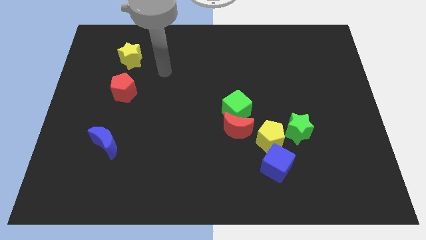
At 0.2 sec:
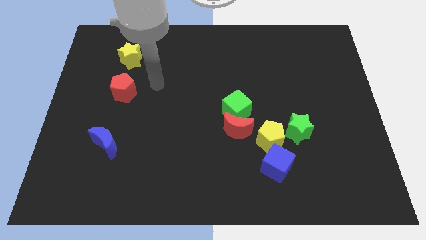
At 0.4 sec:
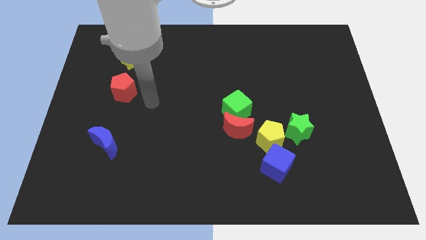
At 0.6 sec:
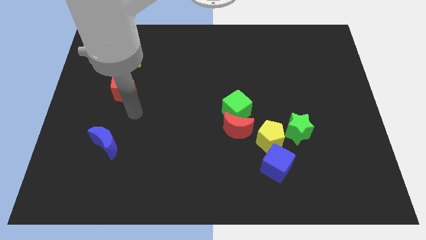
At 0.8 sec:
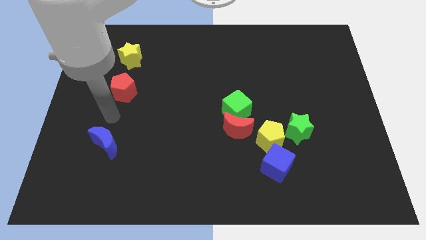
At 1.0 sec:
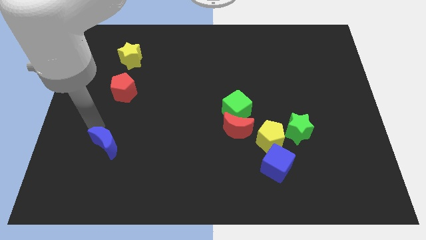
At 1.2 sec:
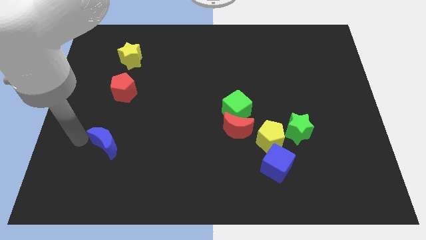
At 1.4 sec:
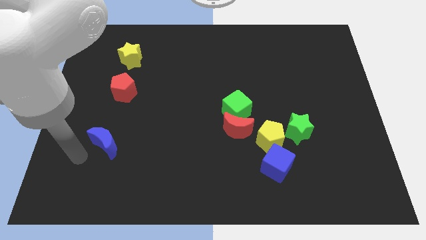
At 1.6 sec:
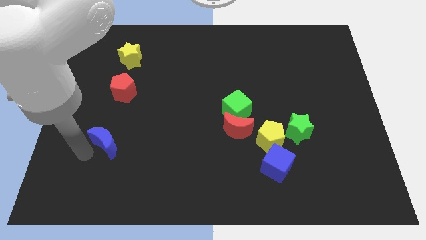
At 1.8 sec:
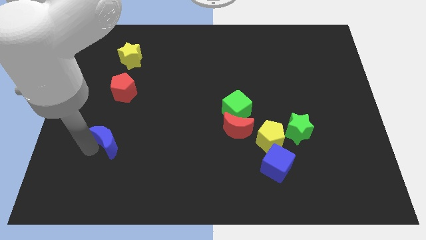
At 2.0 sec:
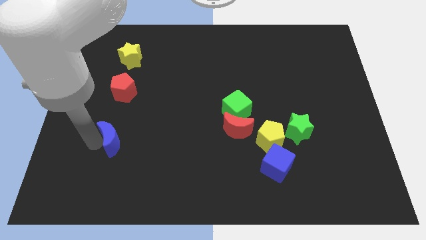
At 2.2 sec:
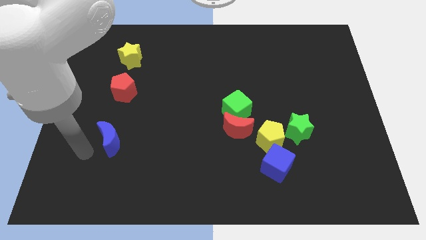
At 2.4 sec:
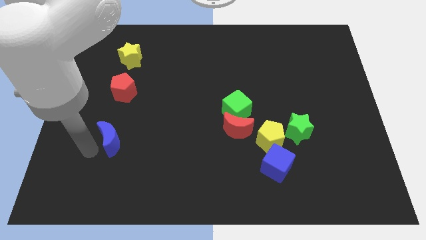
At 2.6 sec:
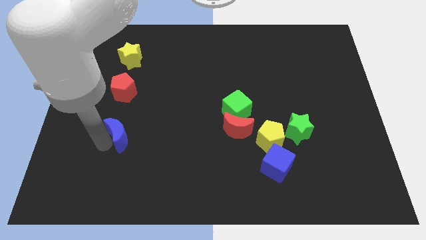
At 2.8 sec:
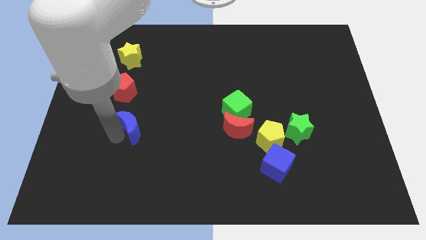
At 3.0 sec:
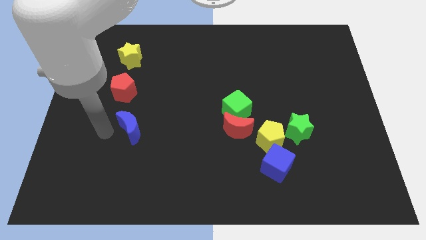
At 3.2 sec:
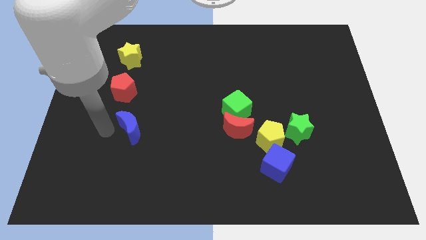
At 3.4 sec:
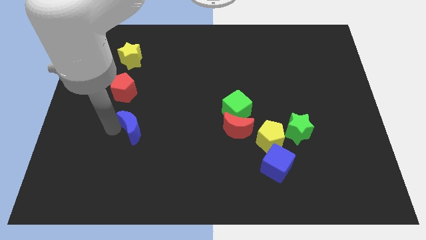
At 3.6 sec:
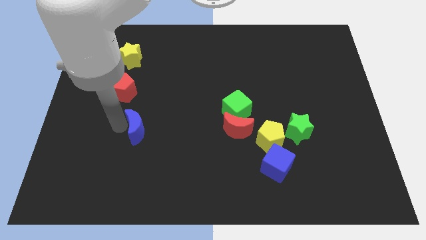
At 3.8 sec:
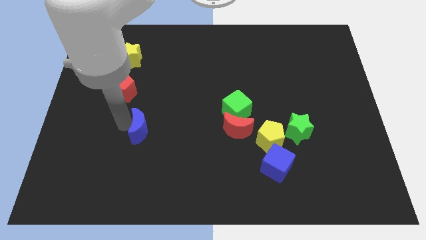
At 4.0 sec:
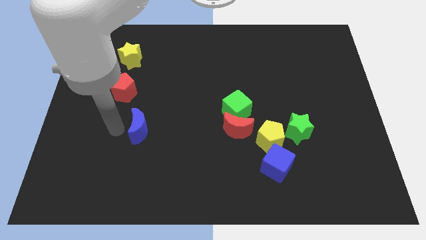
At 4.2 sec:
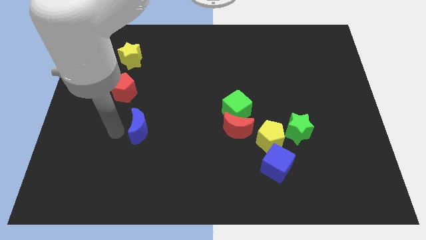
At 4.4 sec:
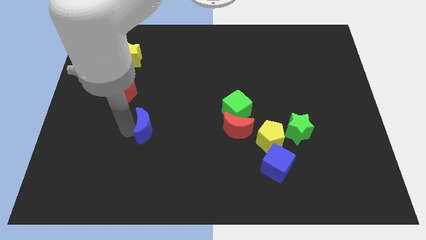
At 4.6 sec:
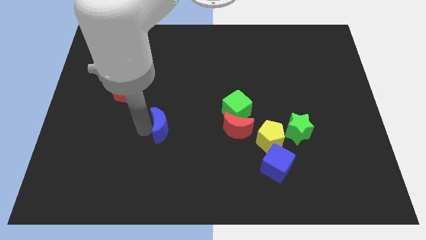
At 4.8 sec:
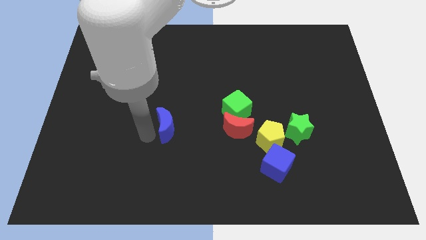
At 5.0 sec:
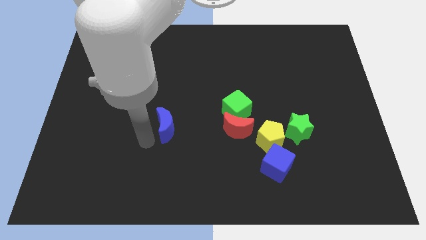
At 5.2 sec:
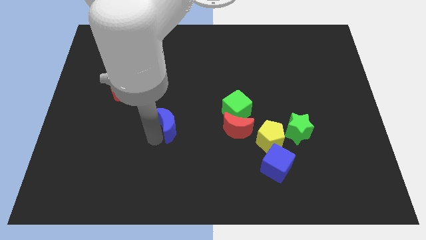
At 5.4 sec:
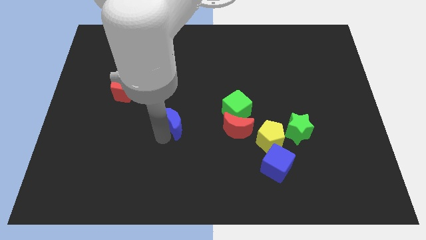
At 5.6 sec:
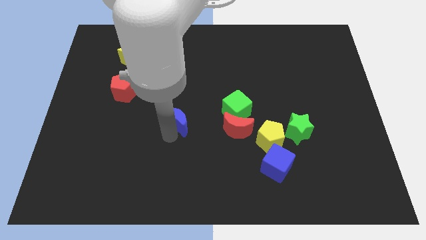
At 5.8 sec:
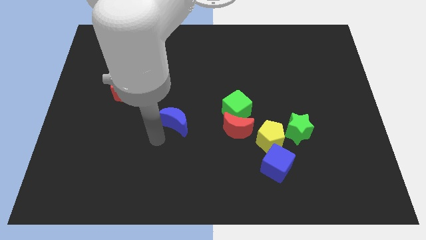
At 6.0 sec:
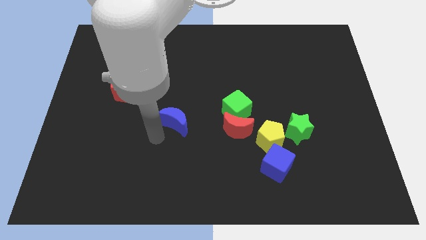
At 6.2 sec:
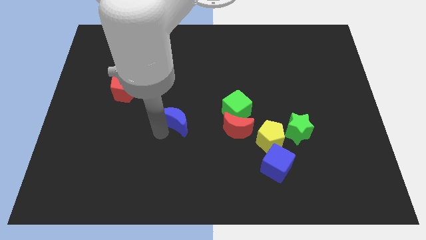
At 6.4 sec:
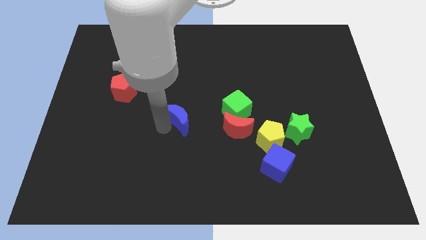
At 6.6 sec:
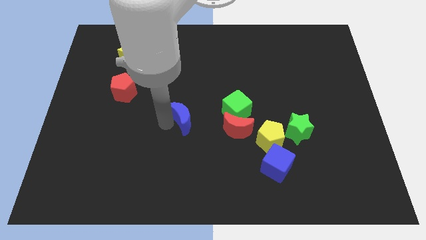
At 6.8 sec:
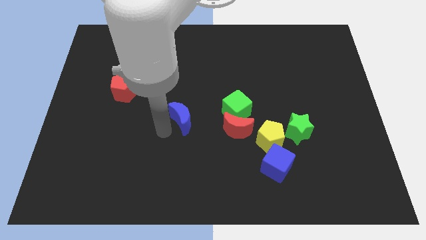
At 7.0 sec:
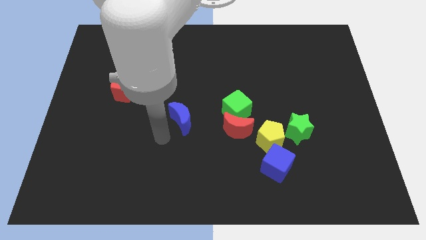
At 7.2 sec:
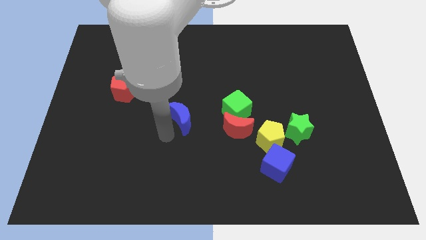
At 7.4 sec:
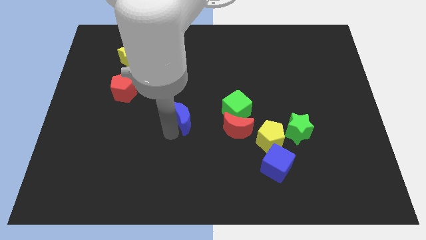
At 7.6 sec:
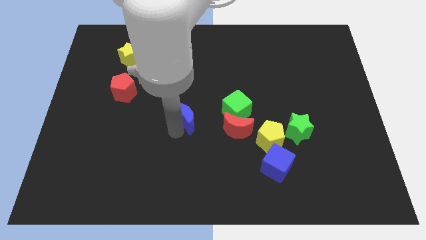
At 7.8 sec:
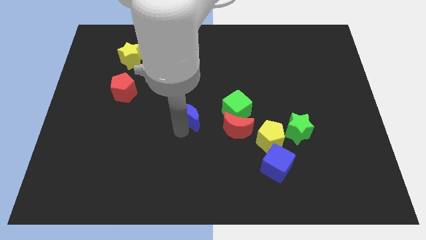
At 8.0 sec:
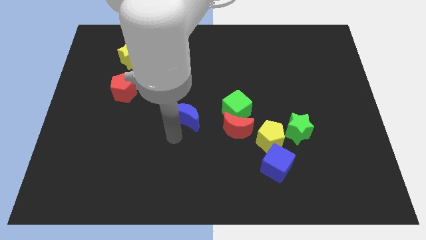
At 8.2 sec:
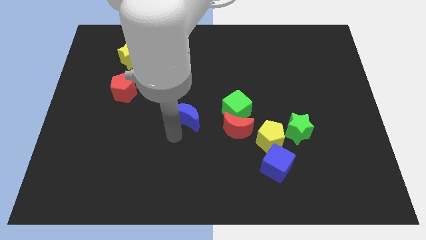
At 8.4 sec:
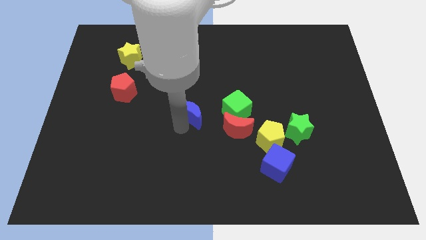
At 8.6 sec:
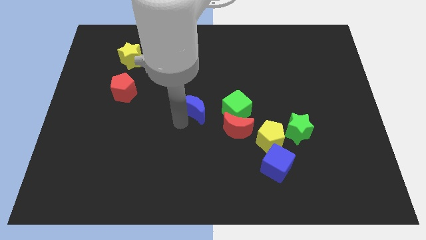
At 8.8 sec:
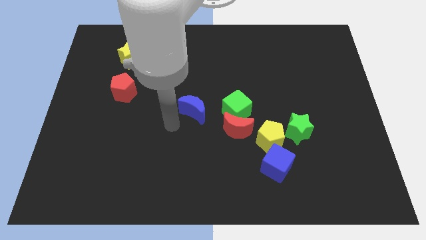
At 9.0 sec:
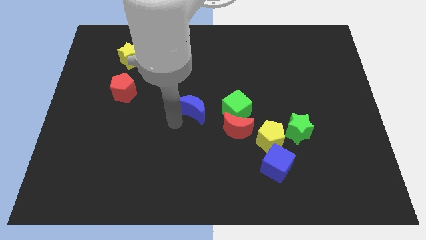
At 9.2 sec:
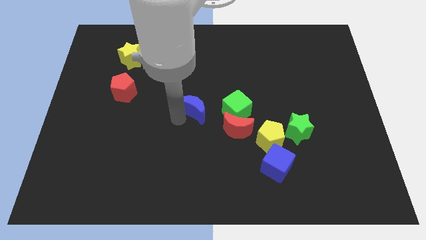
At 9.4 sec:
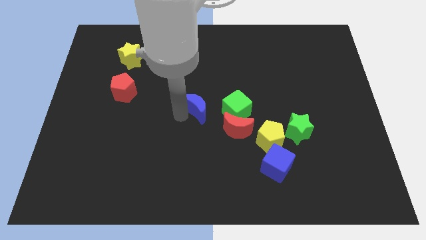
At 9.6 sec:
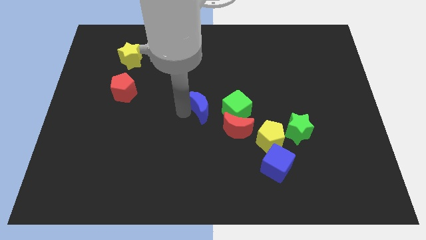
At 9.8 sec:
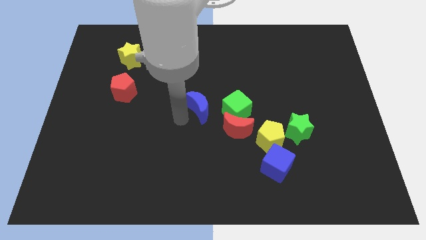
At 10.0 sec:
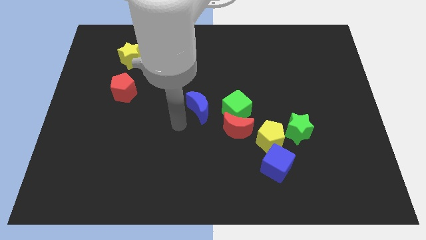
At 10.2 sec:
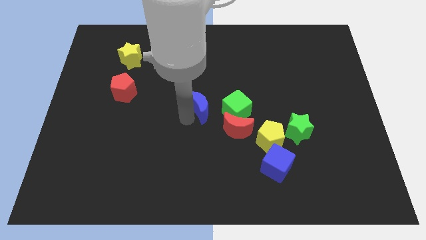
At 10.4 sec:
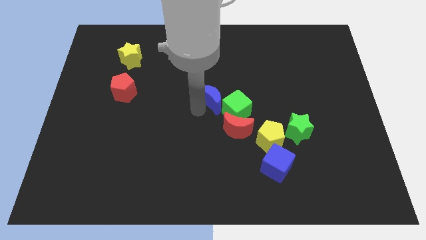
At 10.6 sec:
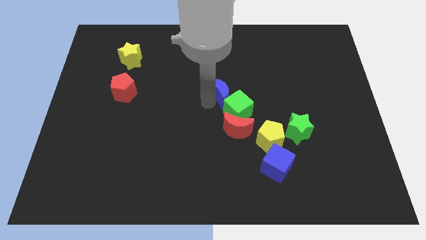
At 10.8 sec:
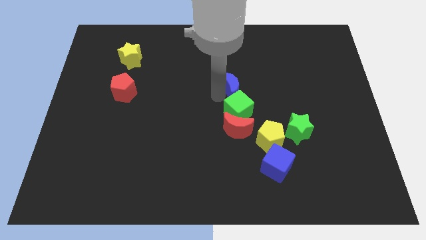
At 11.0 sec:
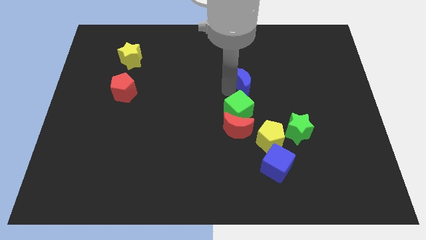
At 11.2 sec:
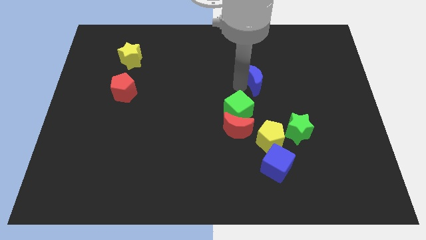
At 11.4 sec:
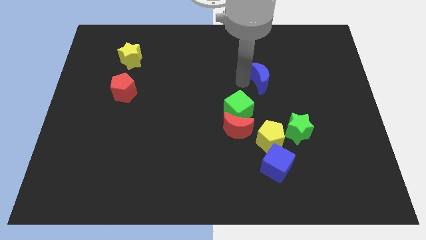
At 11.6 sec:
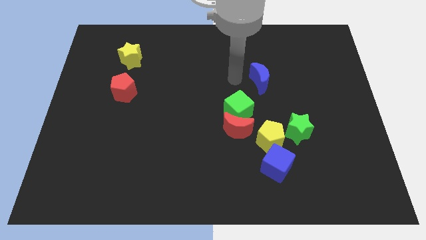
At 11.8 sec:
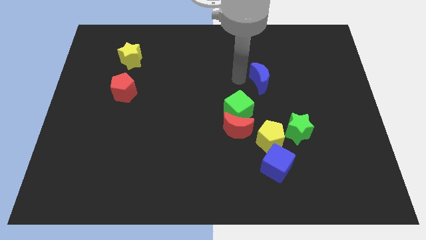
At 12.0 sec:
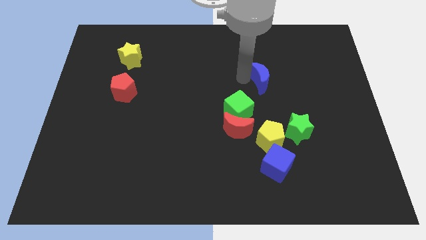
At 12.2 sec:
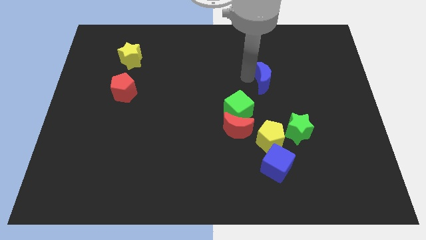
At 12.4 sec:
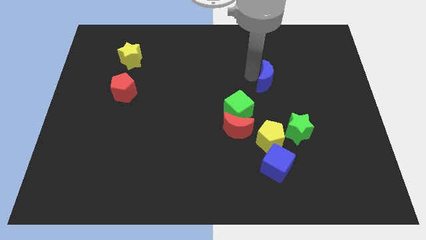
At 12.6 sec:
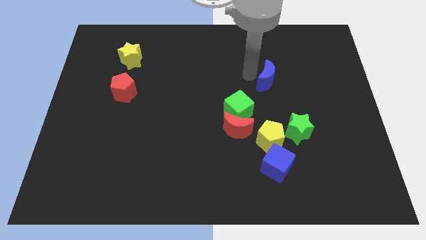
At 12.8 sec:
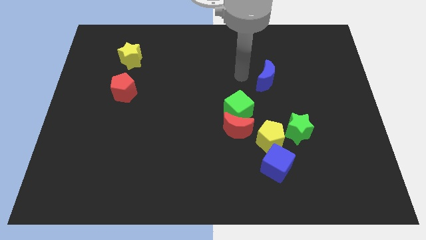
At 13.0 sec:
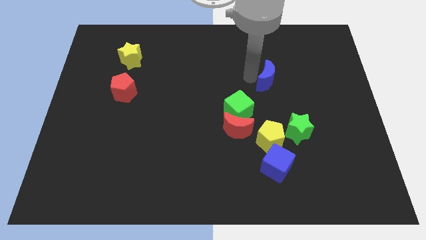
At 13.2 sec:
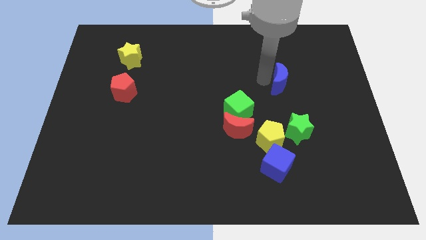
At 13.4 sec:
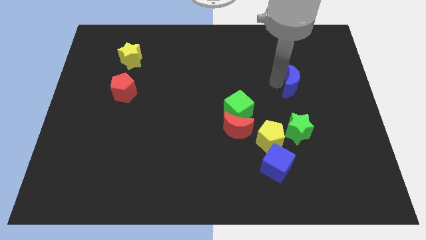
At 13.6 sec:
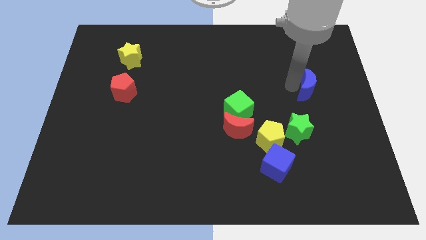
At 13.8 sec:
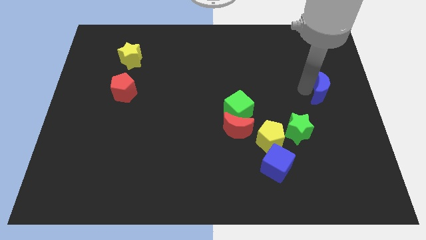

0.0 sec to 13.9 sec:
move the blue moon to the right side

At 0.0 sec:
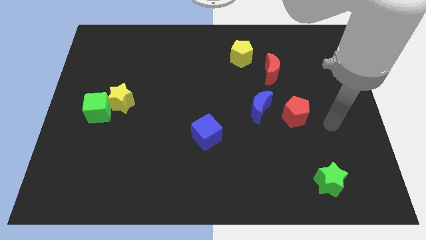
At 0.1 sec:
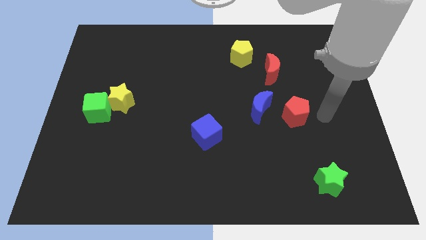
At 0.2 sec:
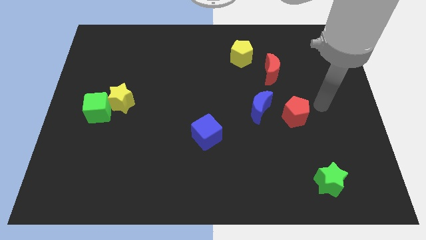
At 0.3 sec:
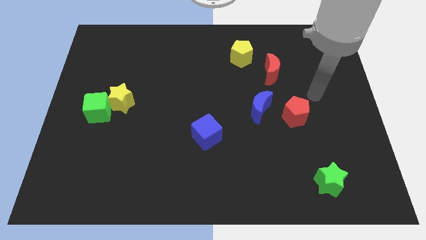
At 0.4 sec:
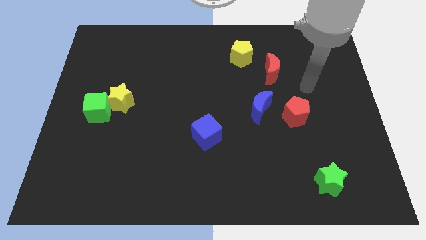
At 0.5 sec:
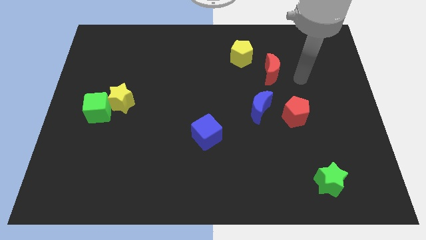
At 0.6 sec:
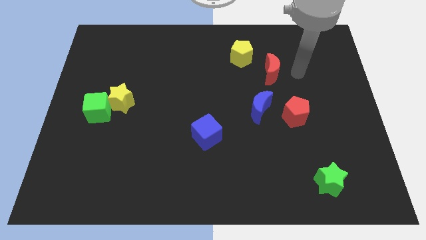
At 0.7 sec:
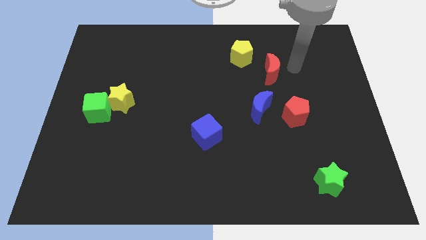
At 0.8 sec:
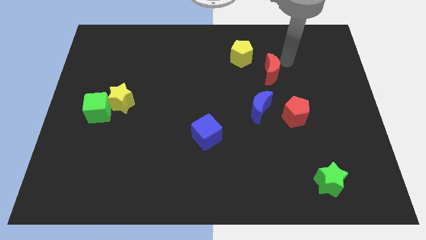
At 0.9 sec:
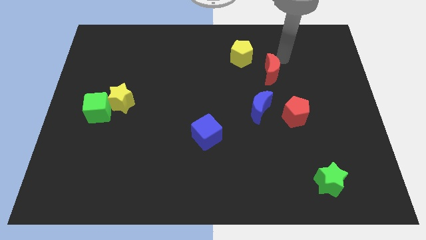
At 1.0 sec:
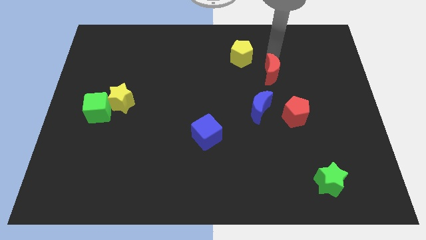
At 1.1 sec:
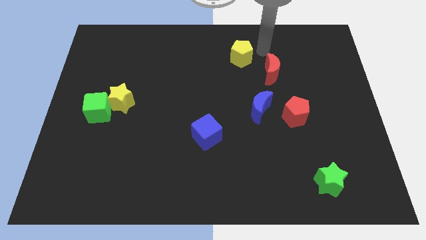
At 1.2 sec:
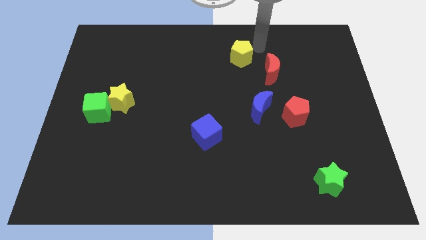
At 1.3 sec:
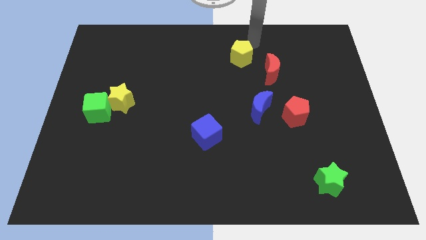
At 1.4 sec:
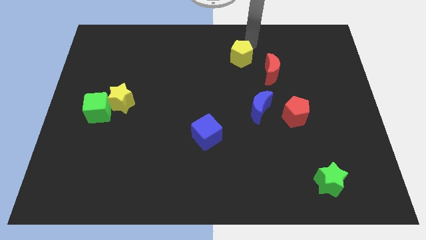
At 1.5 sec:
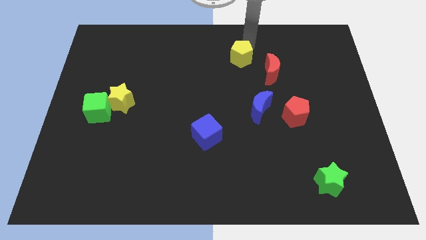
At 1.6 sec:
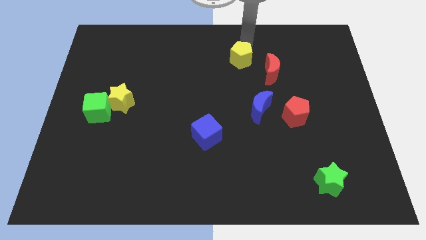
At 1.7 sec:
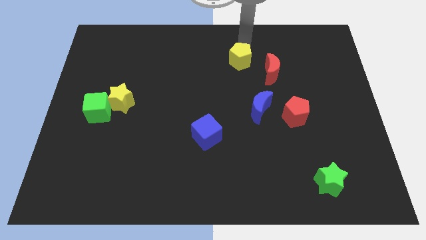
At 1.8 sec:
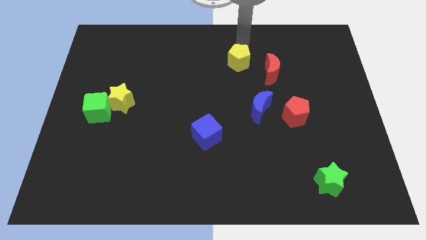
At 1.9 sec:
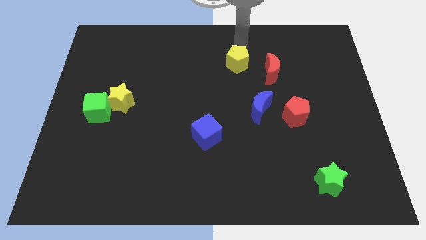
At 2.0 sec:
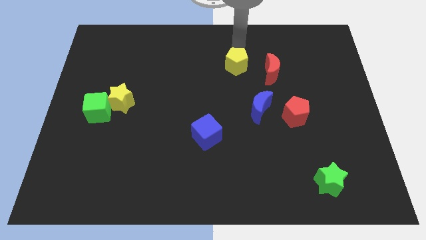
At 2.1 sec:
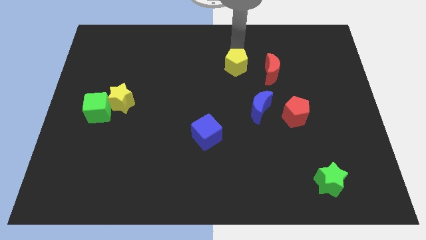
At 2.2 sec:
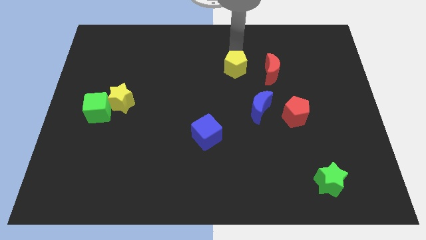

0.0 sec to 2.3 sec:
slide the yellow pentagon to the center of the board
